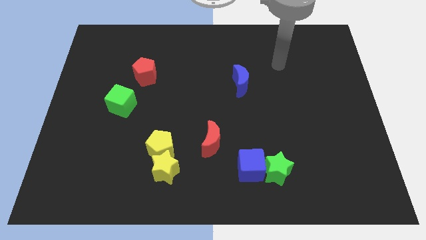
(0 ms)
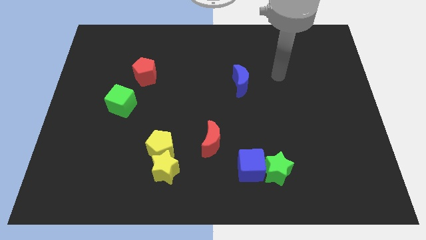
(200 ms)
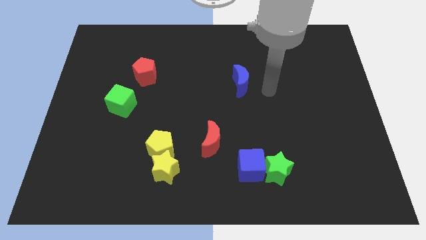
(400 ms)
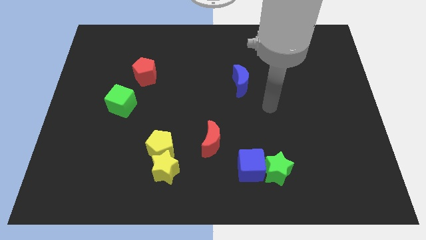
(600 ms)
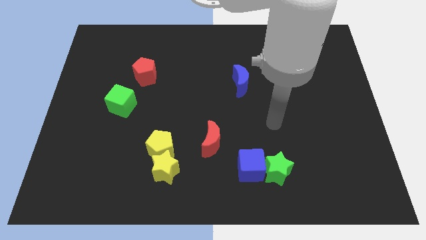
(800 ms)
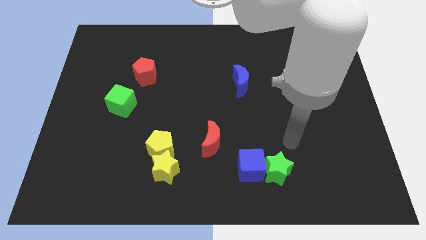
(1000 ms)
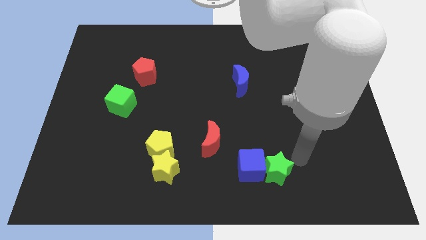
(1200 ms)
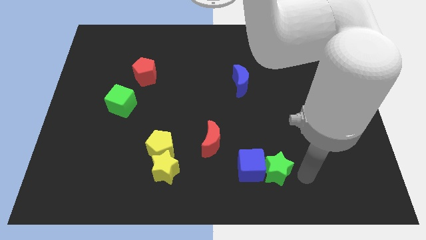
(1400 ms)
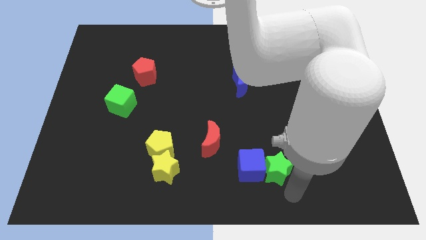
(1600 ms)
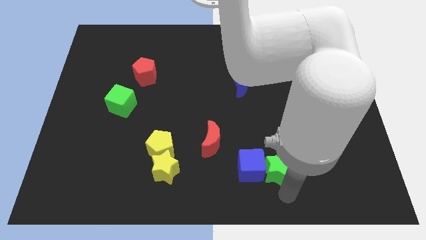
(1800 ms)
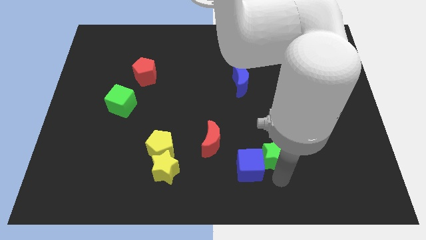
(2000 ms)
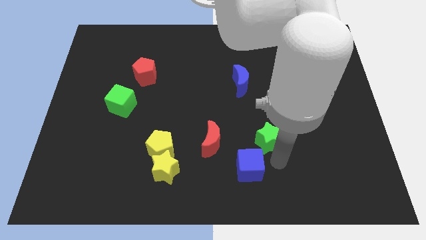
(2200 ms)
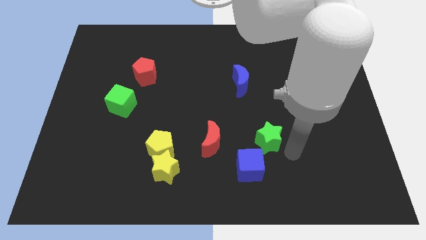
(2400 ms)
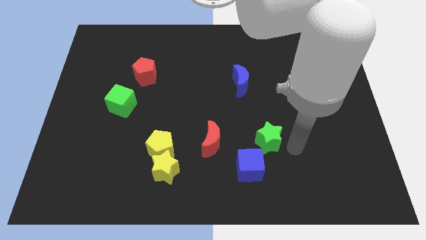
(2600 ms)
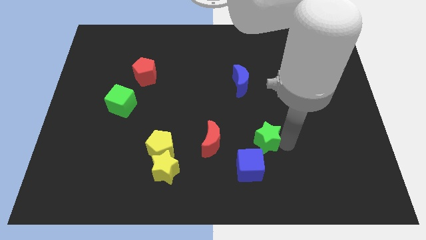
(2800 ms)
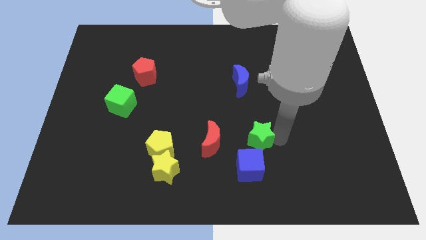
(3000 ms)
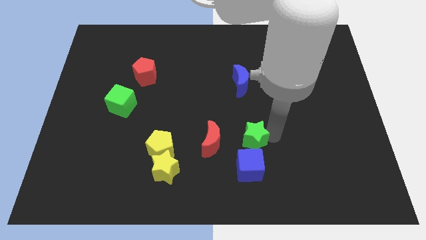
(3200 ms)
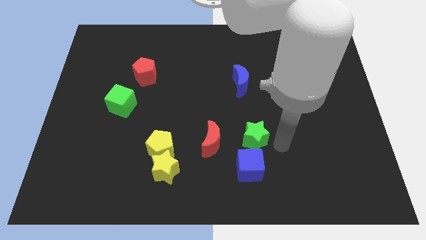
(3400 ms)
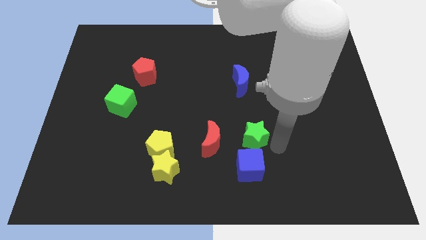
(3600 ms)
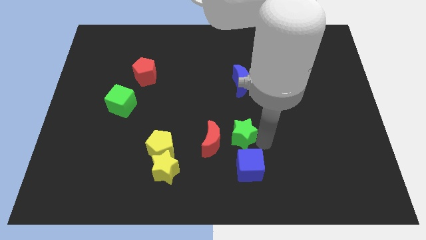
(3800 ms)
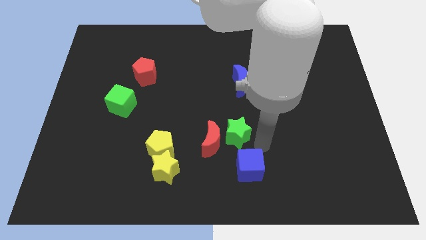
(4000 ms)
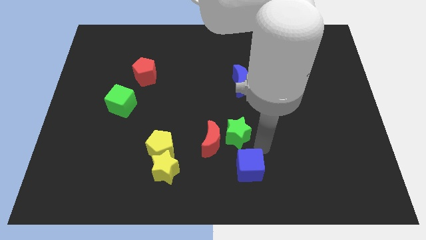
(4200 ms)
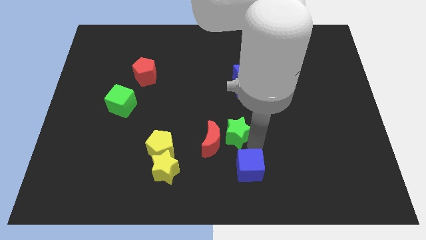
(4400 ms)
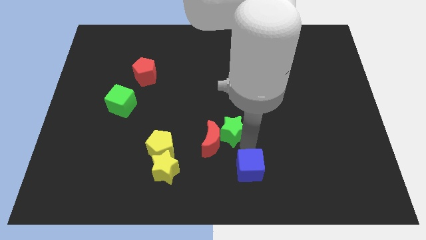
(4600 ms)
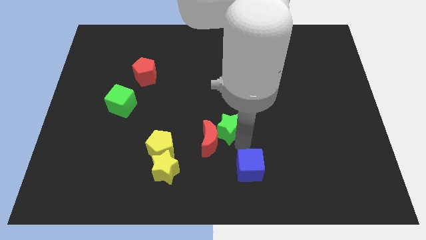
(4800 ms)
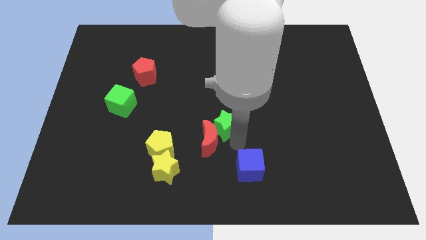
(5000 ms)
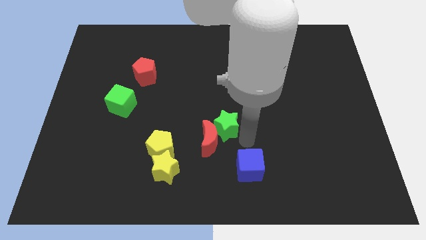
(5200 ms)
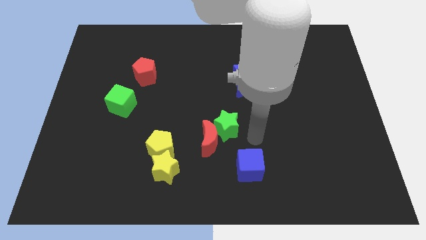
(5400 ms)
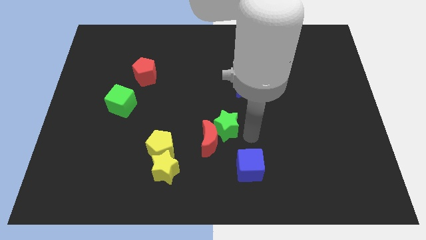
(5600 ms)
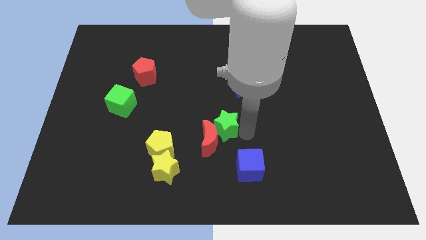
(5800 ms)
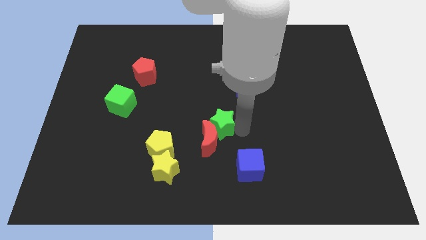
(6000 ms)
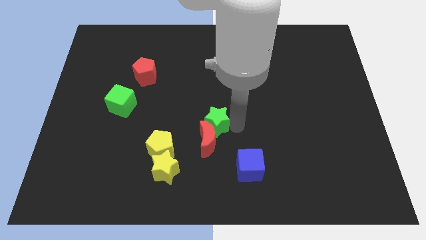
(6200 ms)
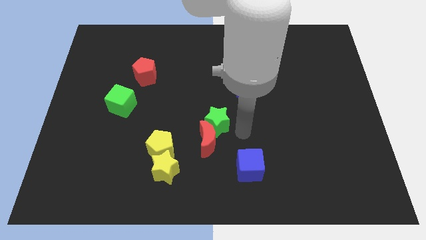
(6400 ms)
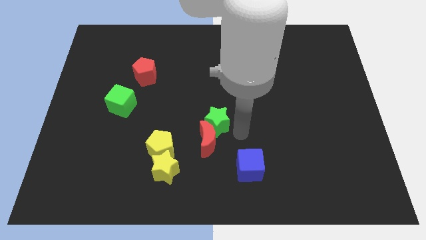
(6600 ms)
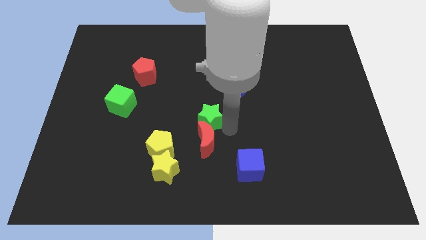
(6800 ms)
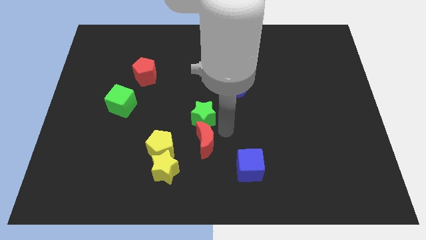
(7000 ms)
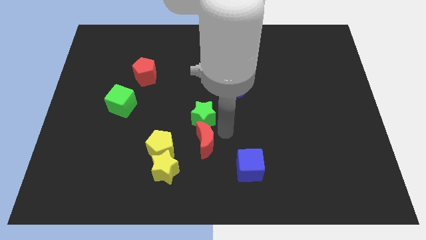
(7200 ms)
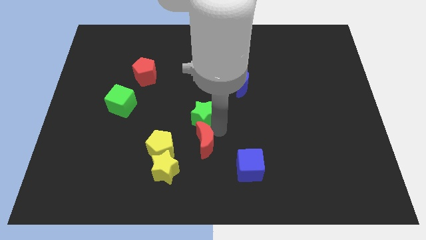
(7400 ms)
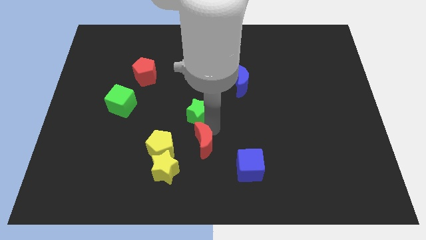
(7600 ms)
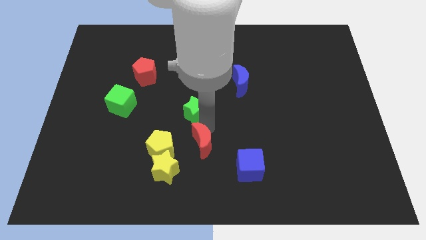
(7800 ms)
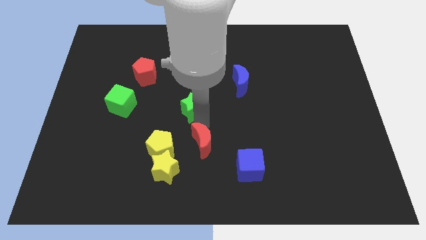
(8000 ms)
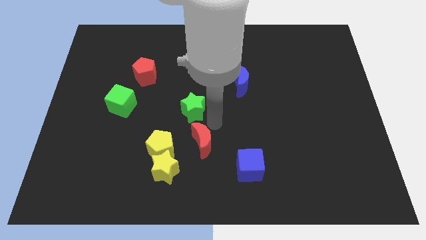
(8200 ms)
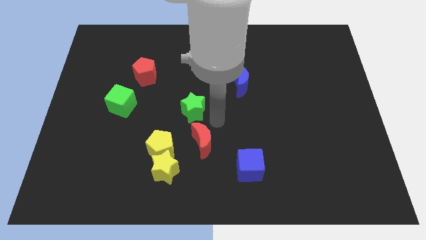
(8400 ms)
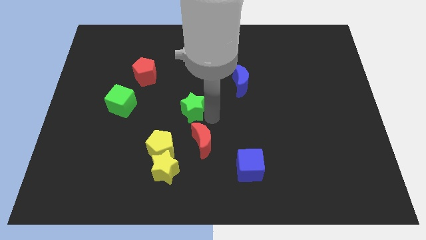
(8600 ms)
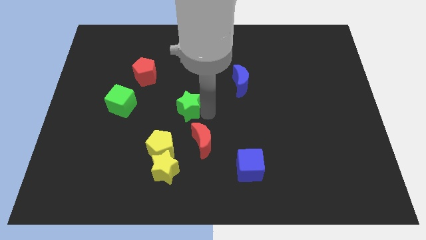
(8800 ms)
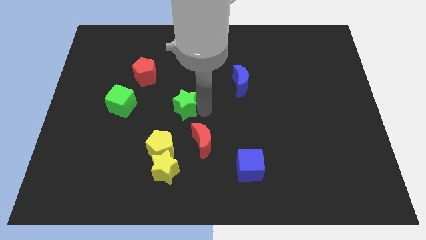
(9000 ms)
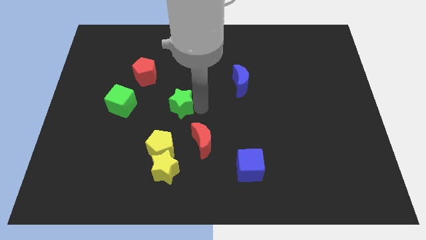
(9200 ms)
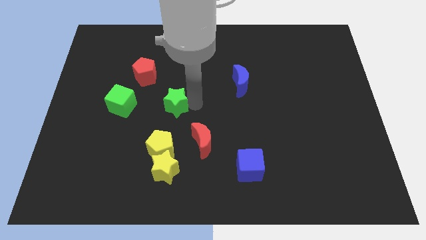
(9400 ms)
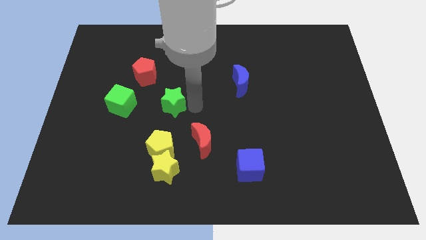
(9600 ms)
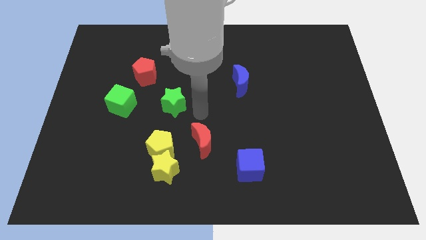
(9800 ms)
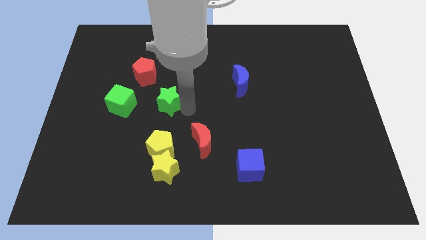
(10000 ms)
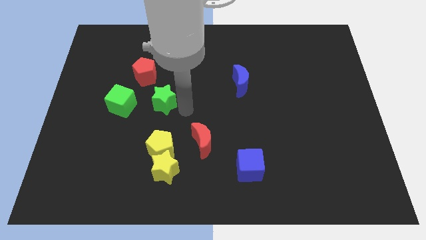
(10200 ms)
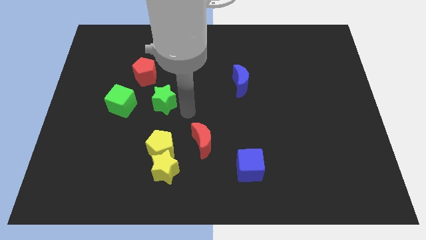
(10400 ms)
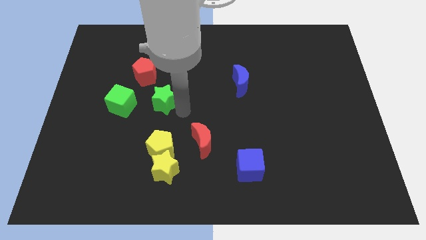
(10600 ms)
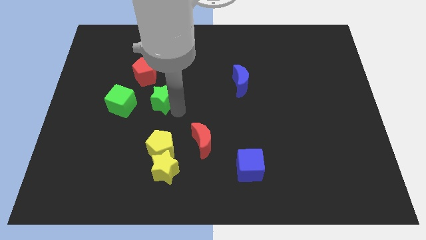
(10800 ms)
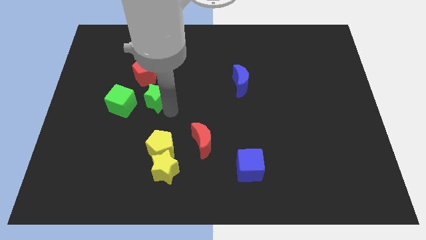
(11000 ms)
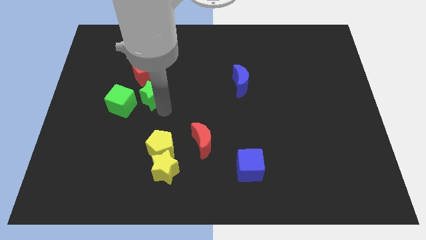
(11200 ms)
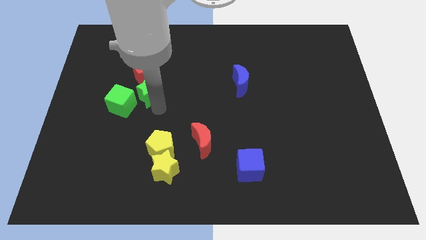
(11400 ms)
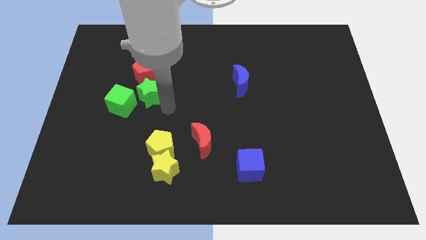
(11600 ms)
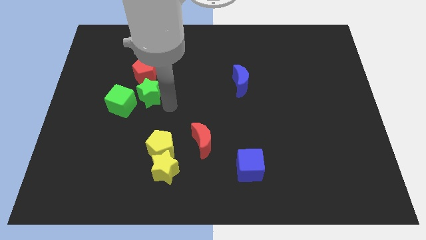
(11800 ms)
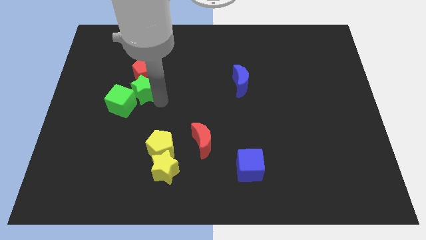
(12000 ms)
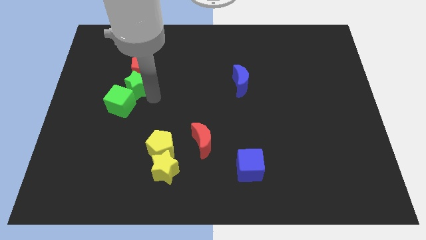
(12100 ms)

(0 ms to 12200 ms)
slide the green star above the green cube
